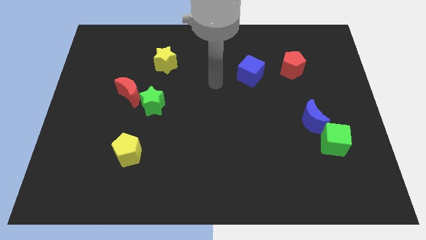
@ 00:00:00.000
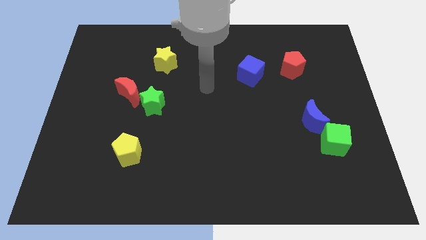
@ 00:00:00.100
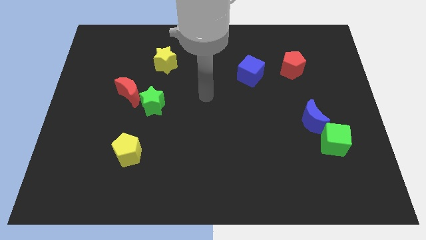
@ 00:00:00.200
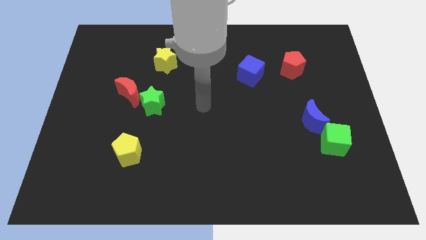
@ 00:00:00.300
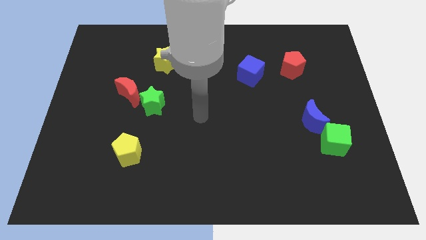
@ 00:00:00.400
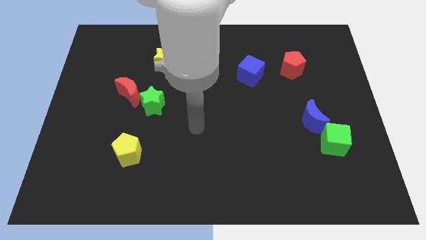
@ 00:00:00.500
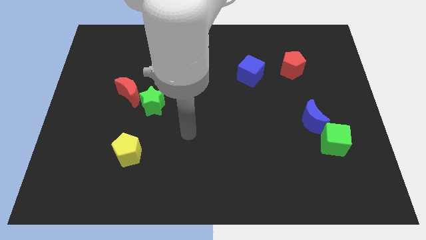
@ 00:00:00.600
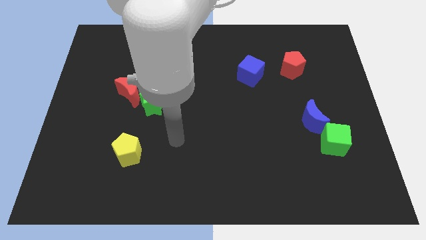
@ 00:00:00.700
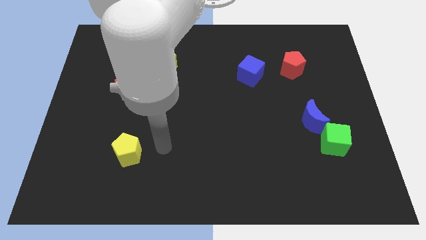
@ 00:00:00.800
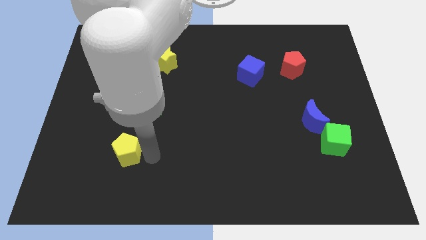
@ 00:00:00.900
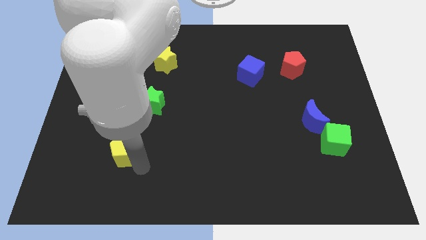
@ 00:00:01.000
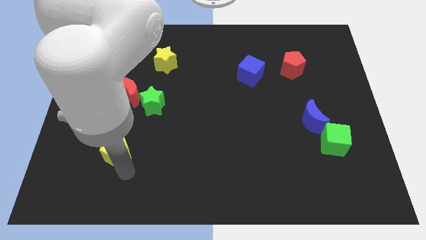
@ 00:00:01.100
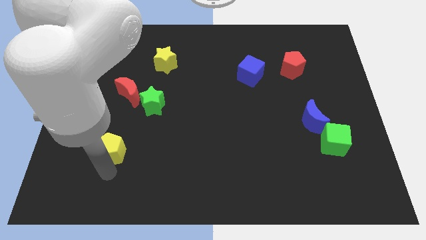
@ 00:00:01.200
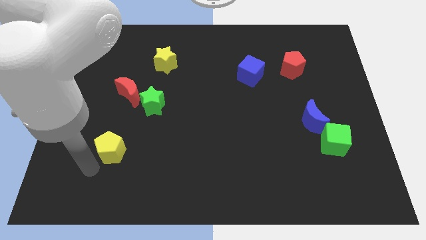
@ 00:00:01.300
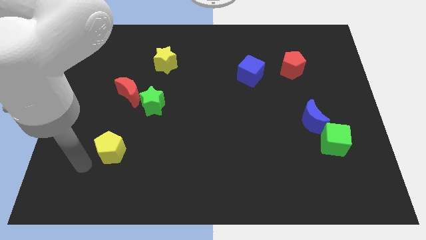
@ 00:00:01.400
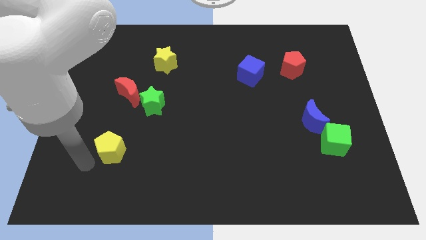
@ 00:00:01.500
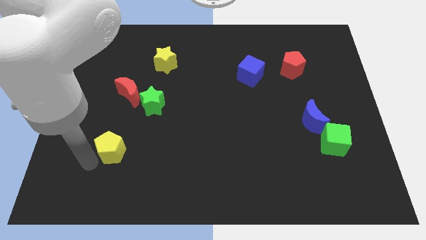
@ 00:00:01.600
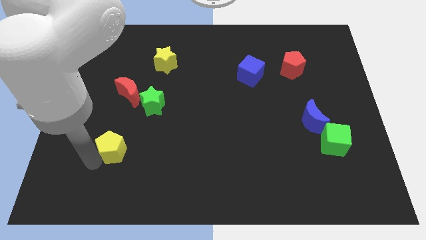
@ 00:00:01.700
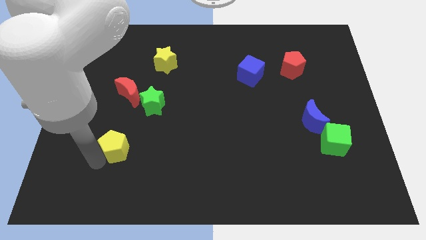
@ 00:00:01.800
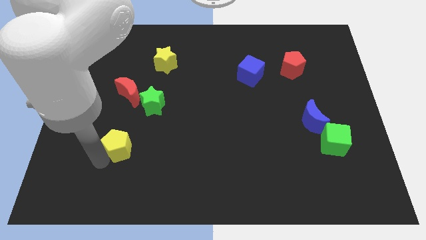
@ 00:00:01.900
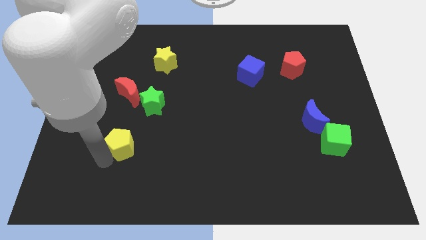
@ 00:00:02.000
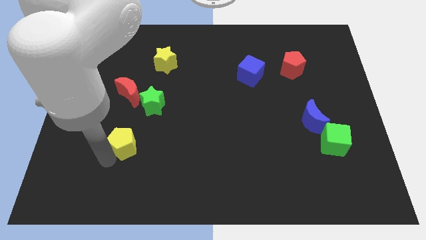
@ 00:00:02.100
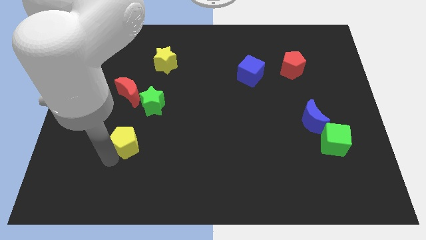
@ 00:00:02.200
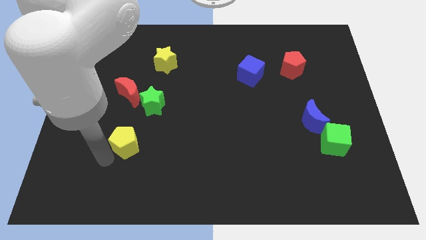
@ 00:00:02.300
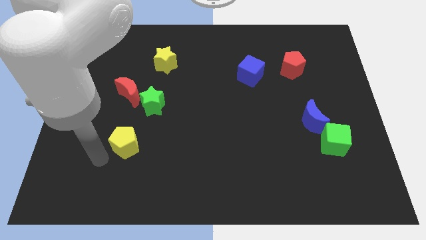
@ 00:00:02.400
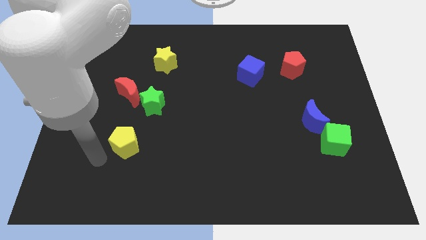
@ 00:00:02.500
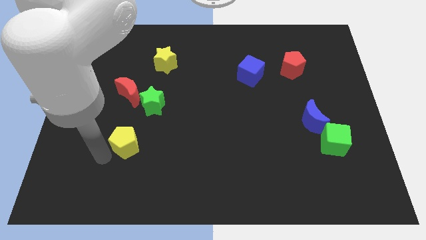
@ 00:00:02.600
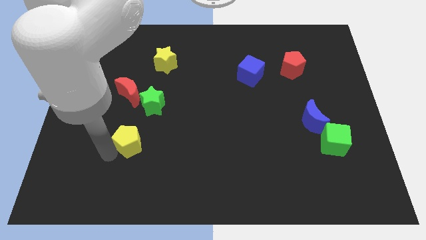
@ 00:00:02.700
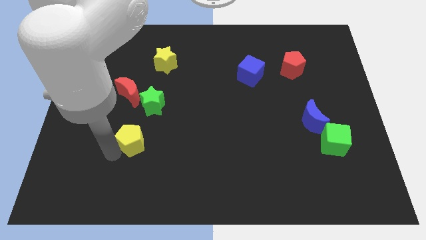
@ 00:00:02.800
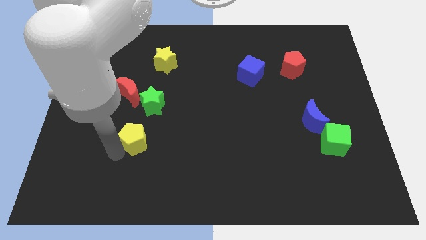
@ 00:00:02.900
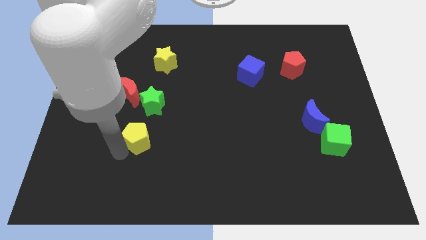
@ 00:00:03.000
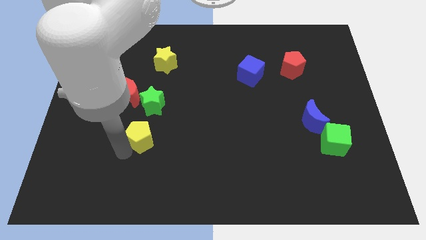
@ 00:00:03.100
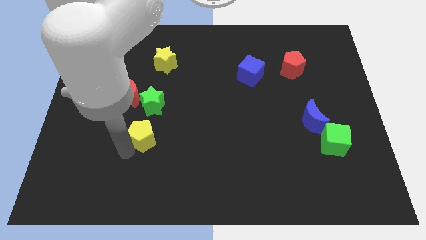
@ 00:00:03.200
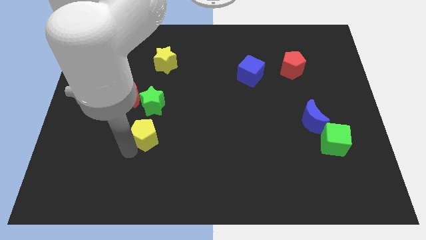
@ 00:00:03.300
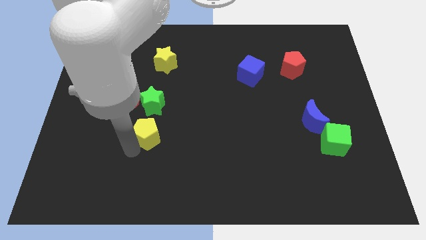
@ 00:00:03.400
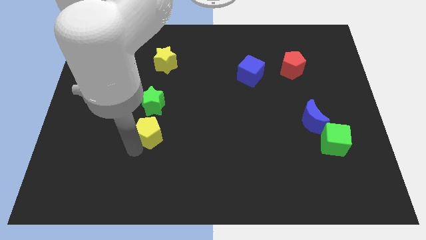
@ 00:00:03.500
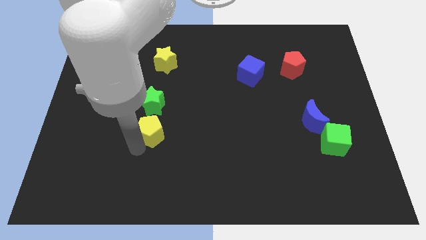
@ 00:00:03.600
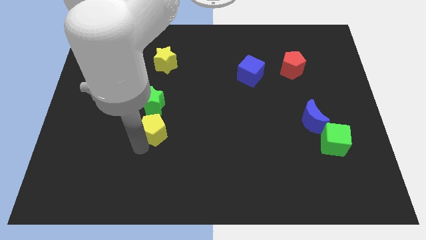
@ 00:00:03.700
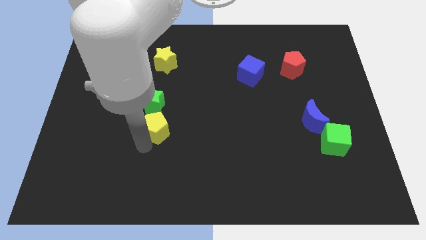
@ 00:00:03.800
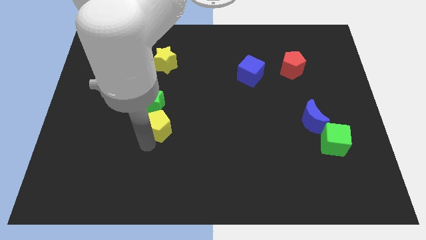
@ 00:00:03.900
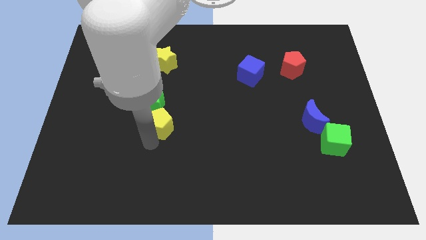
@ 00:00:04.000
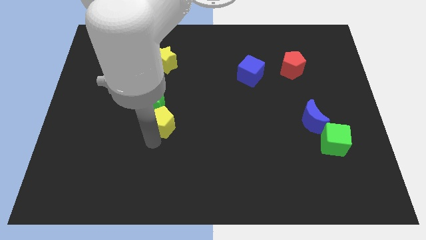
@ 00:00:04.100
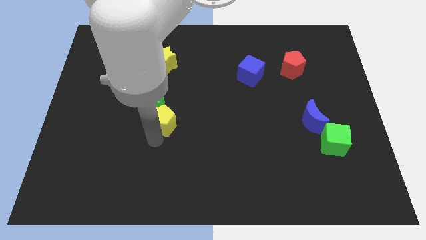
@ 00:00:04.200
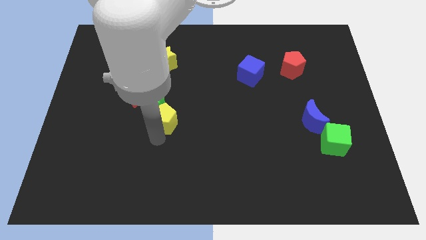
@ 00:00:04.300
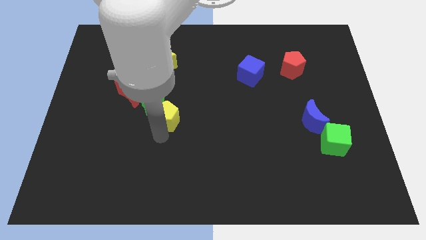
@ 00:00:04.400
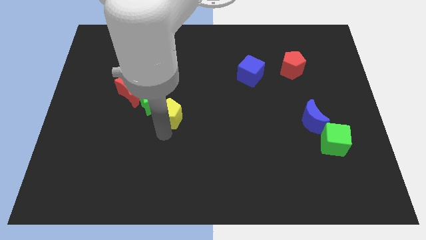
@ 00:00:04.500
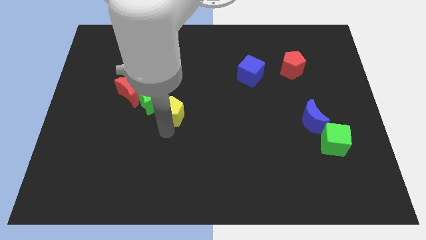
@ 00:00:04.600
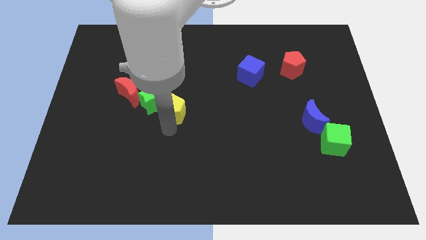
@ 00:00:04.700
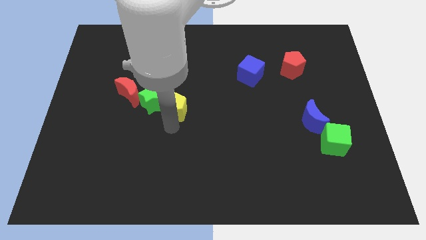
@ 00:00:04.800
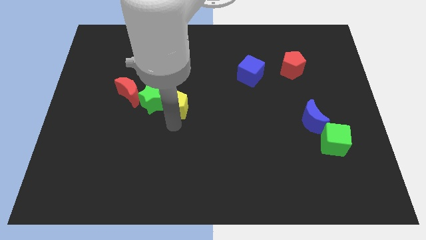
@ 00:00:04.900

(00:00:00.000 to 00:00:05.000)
move the yellow pentagon to the right side of the red moon

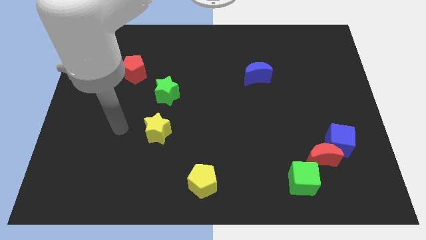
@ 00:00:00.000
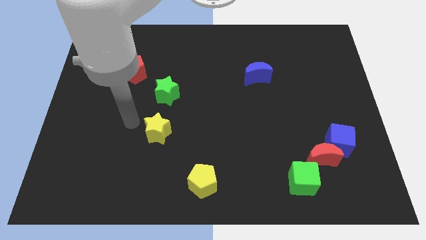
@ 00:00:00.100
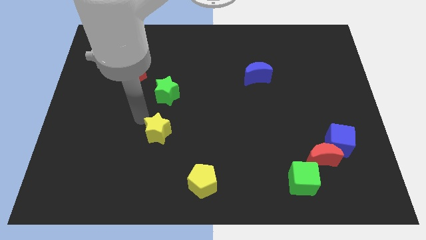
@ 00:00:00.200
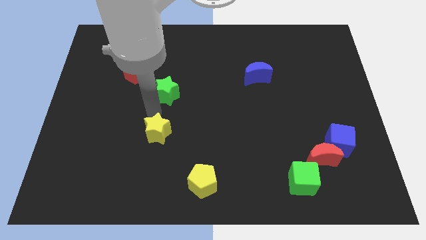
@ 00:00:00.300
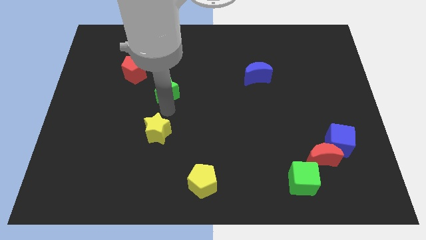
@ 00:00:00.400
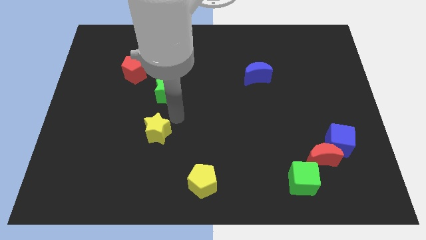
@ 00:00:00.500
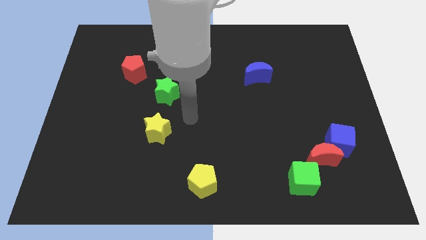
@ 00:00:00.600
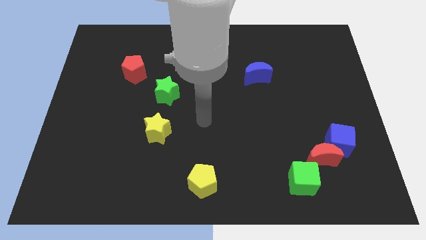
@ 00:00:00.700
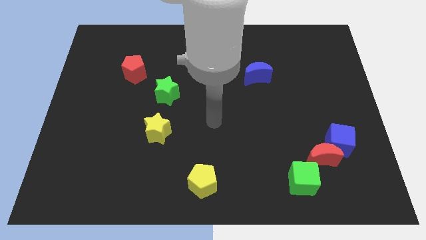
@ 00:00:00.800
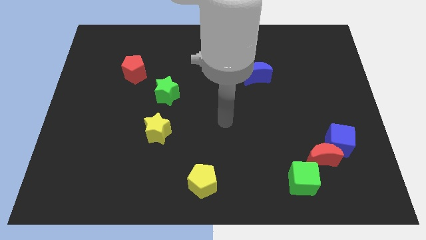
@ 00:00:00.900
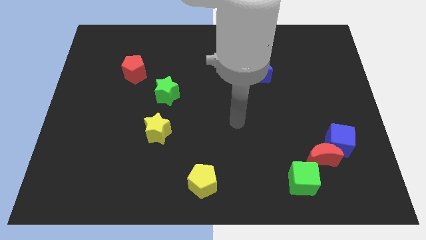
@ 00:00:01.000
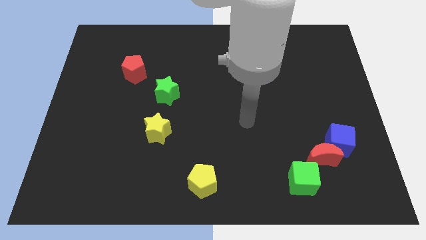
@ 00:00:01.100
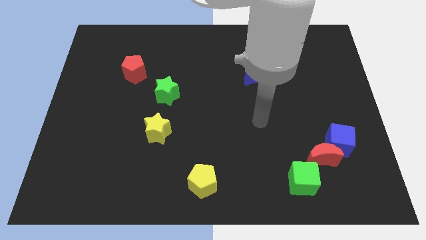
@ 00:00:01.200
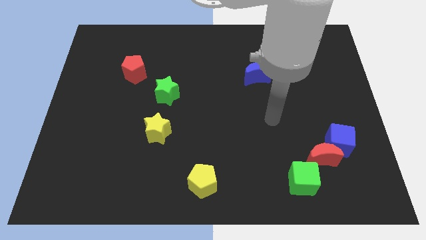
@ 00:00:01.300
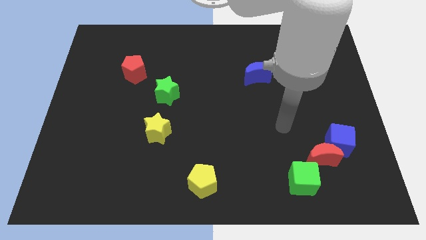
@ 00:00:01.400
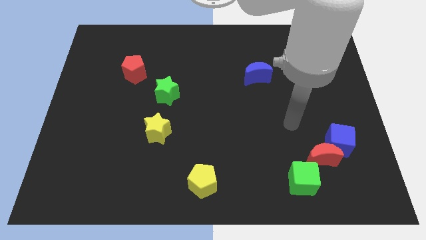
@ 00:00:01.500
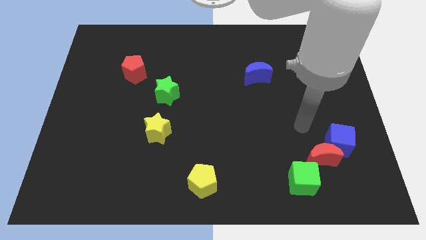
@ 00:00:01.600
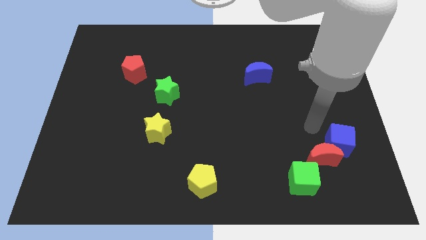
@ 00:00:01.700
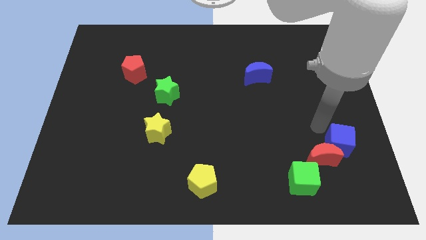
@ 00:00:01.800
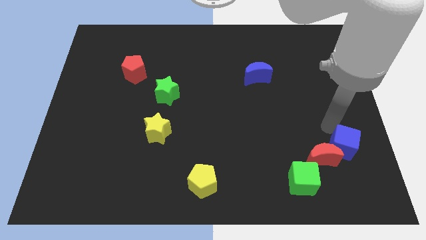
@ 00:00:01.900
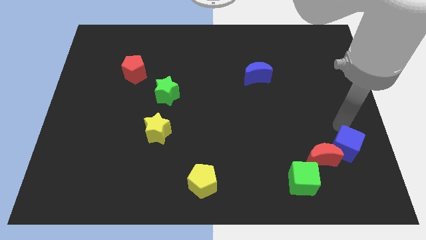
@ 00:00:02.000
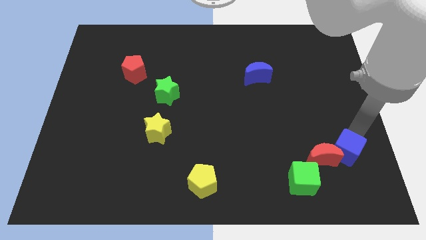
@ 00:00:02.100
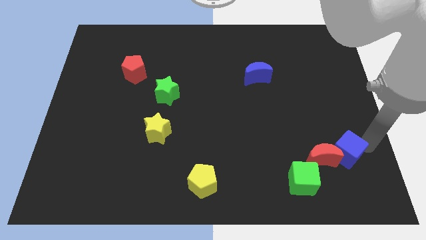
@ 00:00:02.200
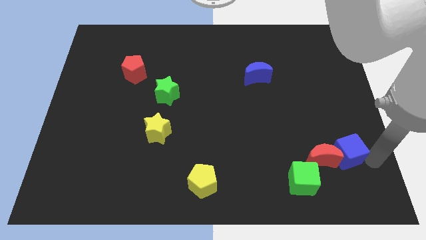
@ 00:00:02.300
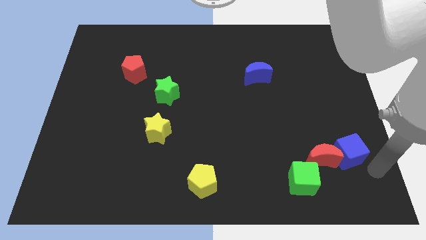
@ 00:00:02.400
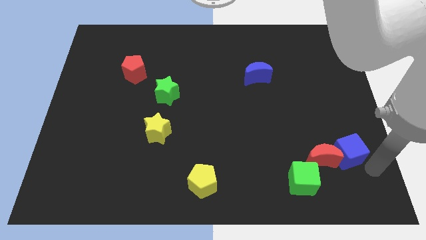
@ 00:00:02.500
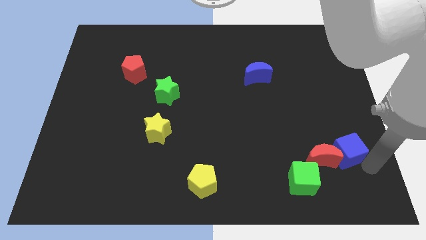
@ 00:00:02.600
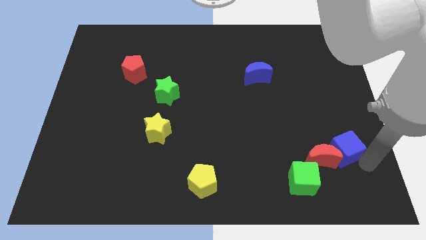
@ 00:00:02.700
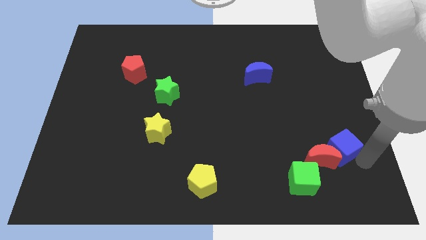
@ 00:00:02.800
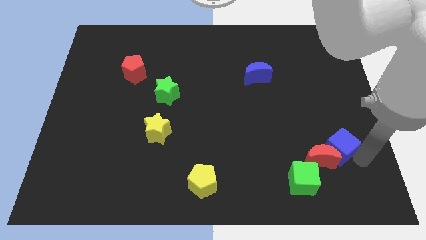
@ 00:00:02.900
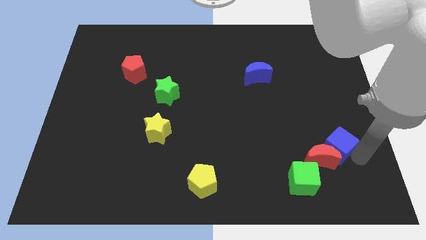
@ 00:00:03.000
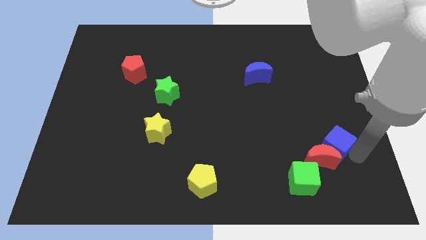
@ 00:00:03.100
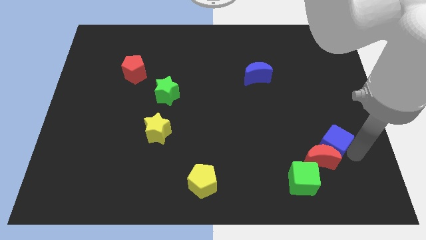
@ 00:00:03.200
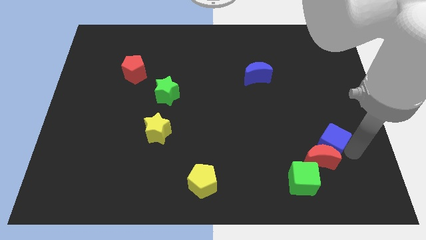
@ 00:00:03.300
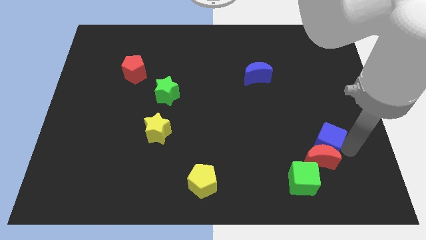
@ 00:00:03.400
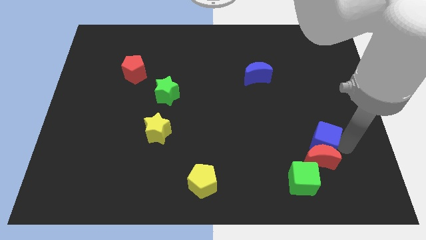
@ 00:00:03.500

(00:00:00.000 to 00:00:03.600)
push the blue cube to the top left of the red moon
